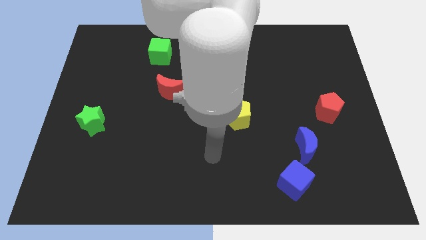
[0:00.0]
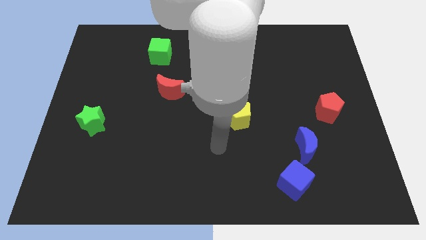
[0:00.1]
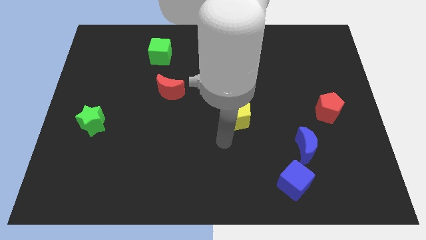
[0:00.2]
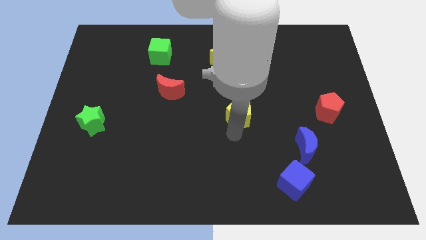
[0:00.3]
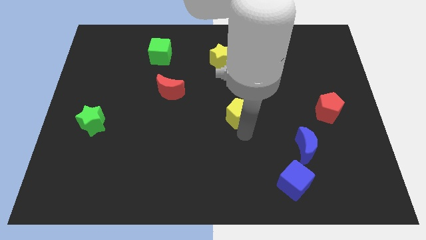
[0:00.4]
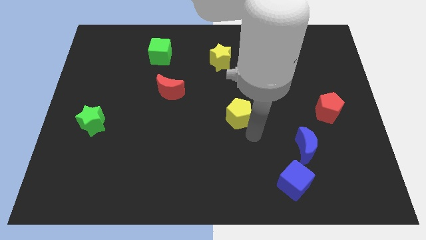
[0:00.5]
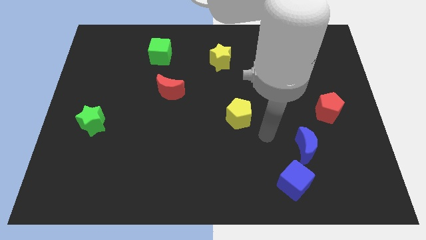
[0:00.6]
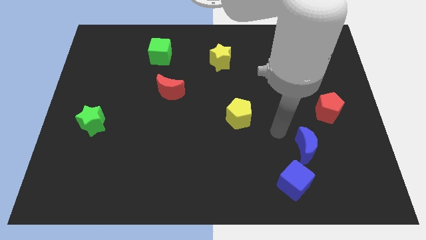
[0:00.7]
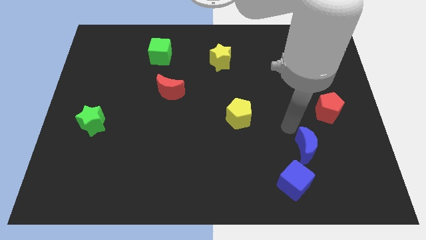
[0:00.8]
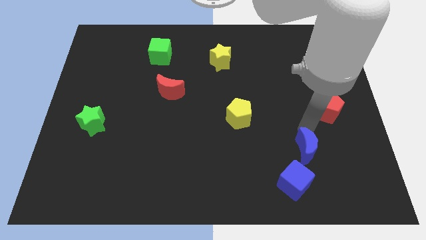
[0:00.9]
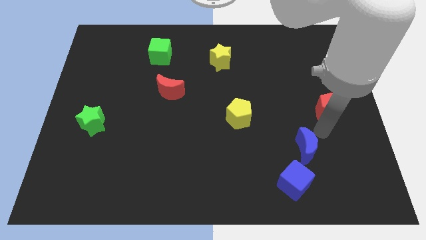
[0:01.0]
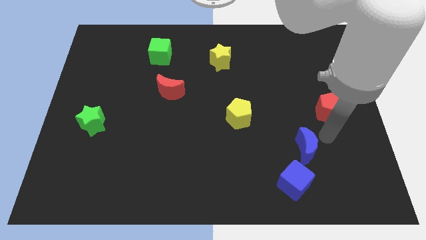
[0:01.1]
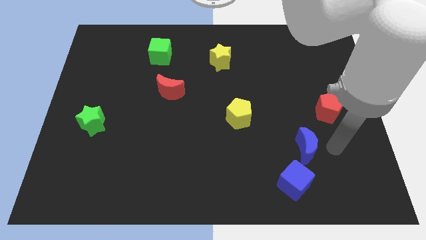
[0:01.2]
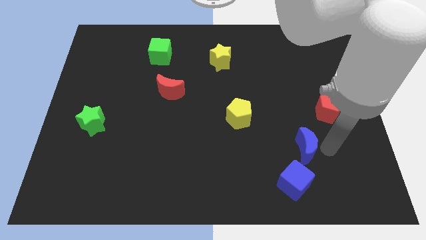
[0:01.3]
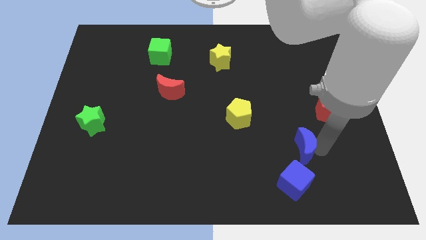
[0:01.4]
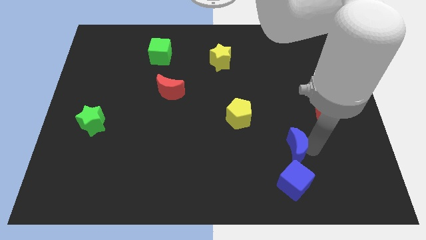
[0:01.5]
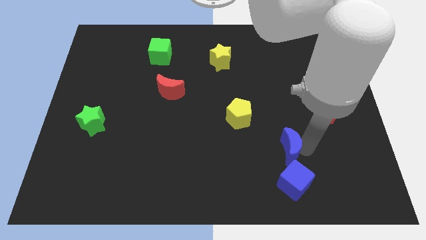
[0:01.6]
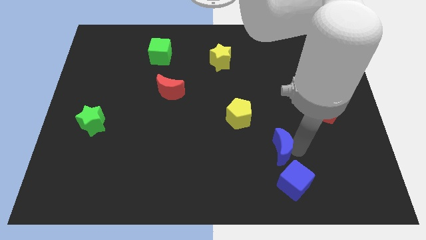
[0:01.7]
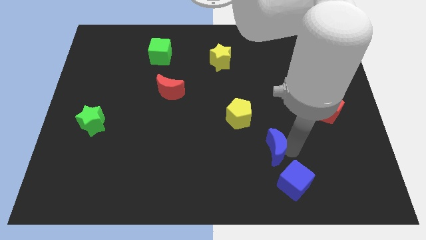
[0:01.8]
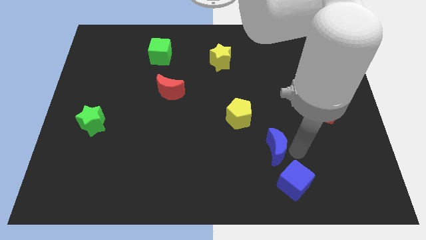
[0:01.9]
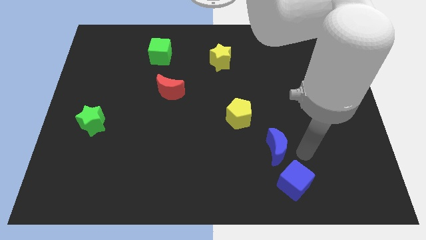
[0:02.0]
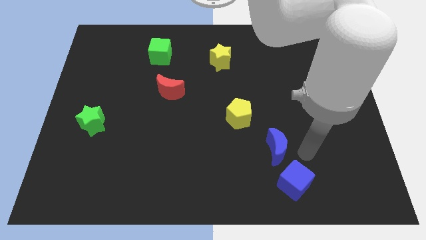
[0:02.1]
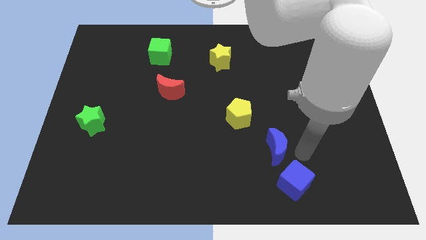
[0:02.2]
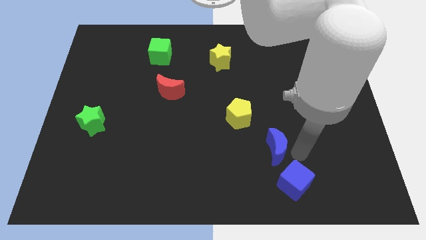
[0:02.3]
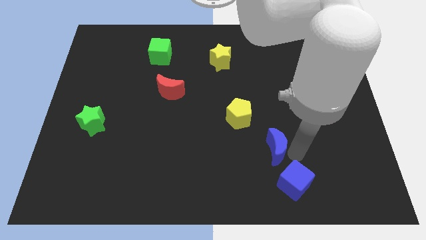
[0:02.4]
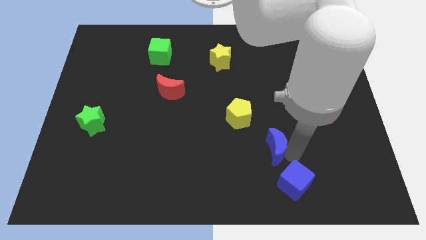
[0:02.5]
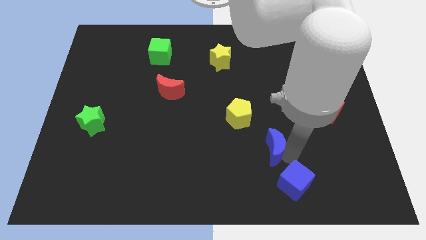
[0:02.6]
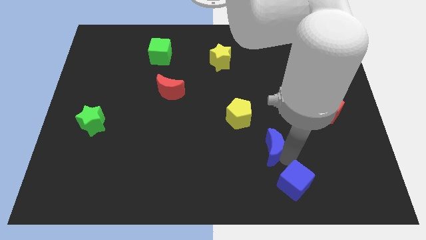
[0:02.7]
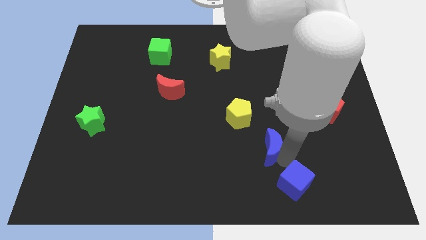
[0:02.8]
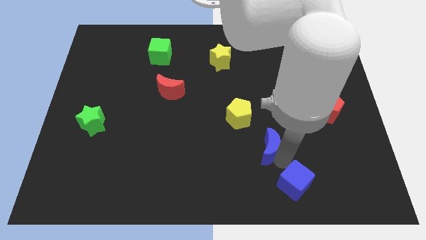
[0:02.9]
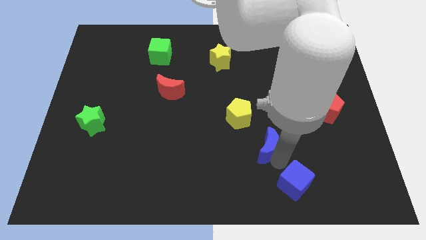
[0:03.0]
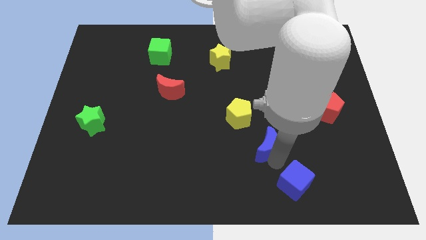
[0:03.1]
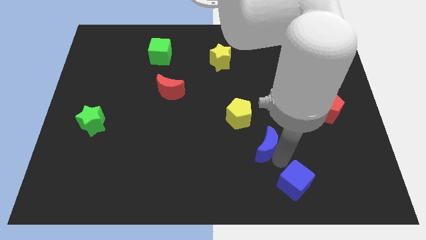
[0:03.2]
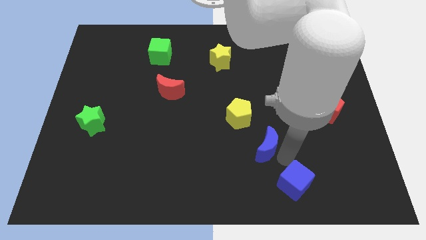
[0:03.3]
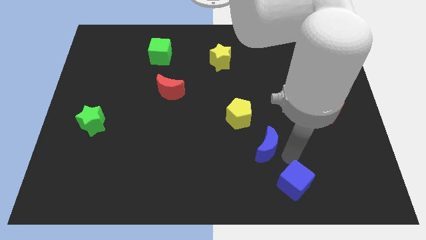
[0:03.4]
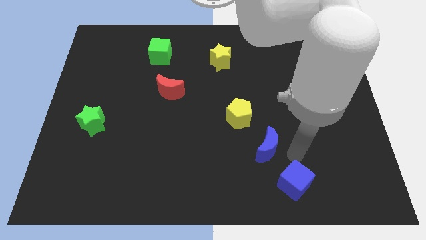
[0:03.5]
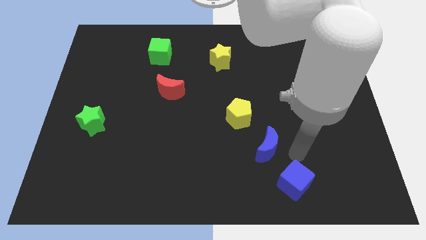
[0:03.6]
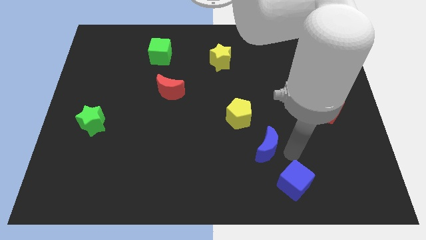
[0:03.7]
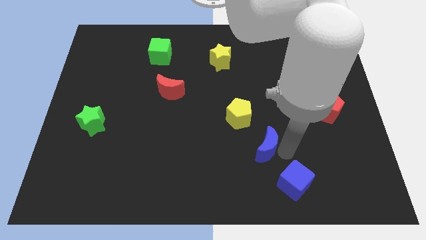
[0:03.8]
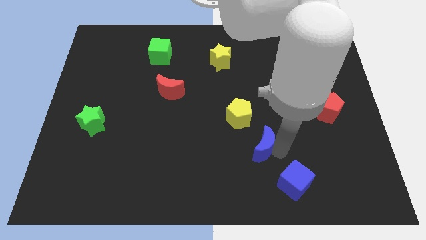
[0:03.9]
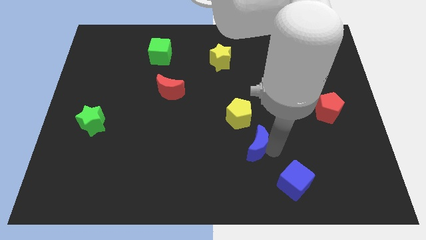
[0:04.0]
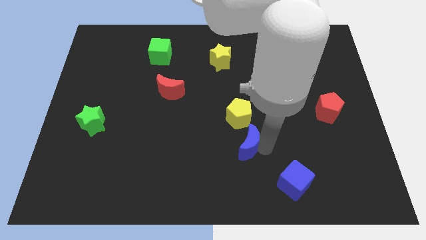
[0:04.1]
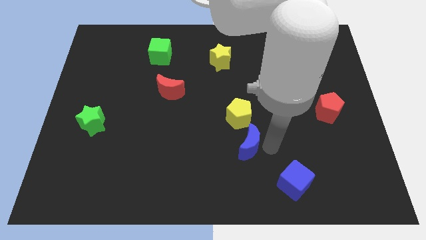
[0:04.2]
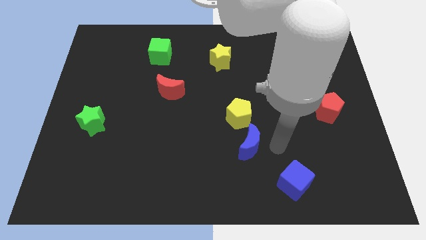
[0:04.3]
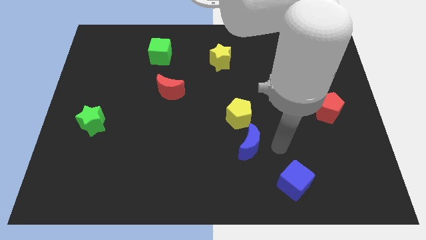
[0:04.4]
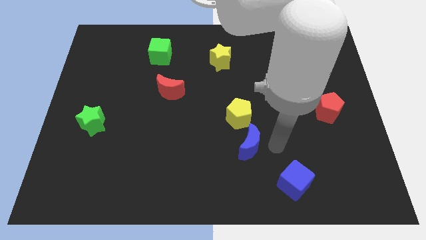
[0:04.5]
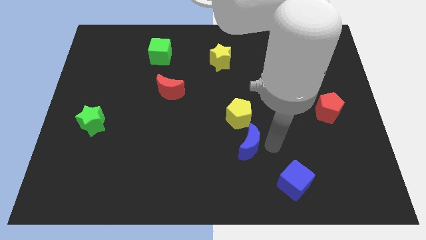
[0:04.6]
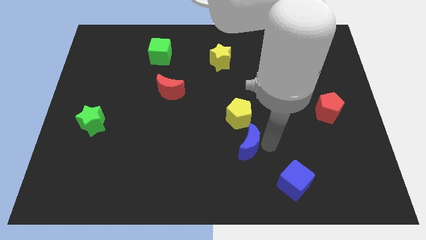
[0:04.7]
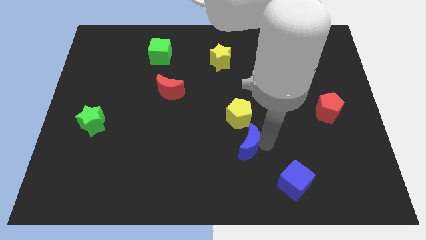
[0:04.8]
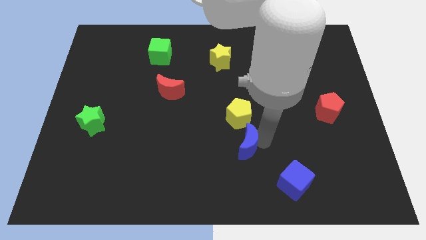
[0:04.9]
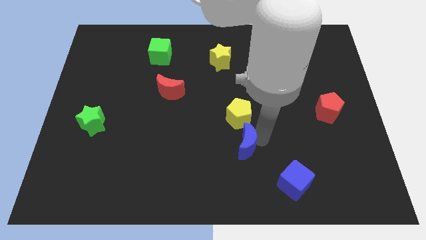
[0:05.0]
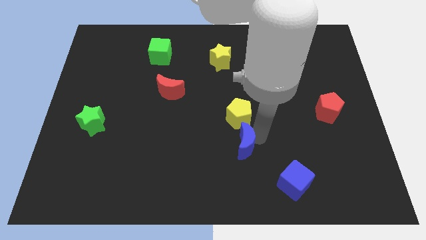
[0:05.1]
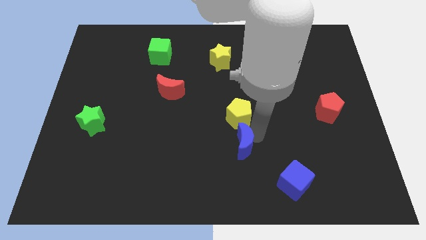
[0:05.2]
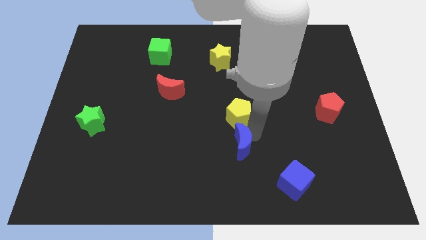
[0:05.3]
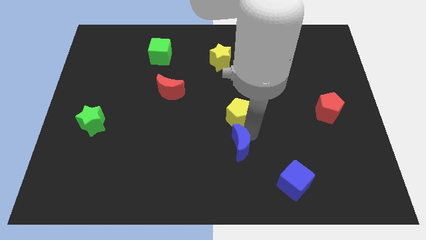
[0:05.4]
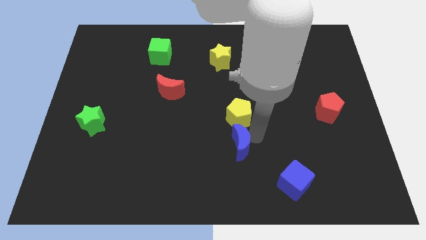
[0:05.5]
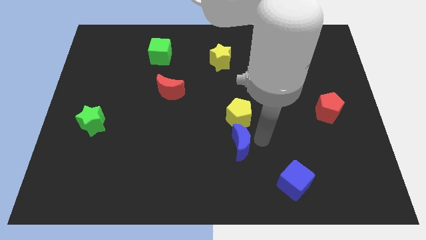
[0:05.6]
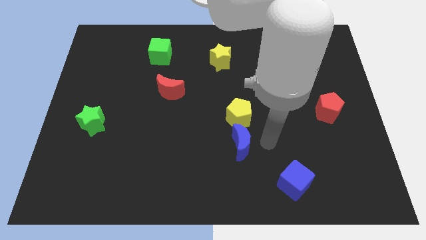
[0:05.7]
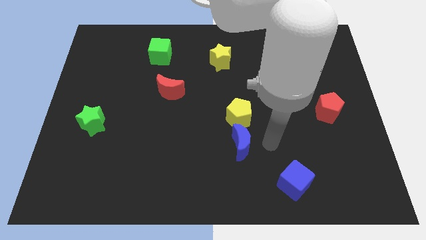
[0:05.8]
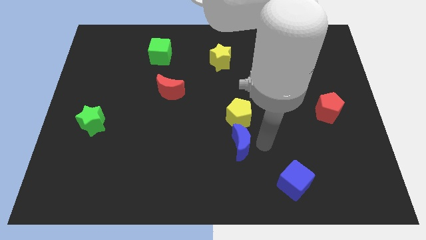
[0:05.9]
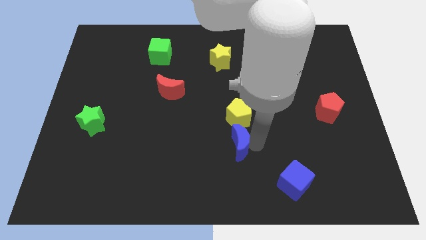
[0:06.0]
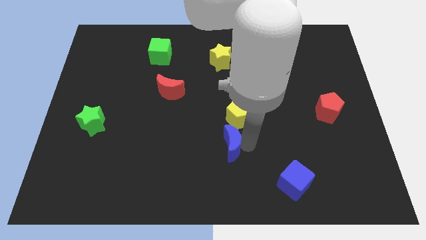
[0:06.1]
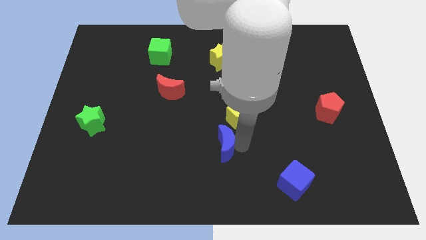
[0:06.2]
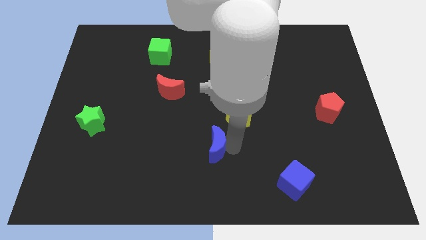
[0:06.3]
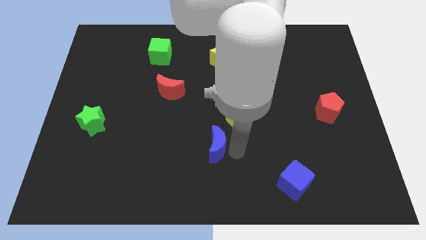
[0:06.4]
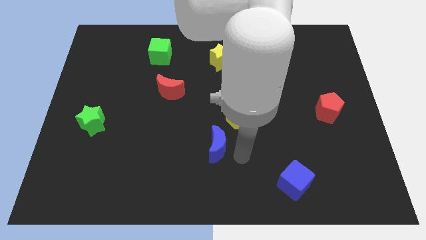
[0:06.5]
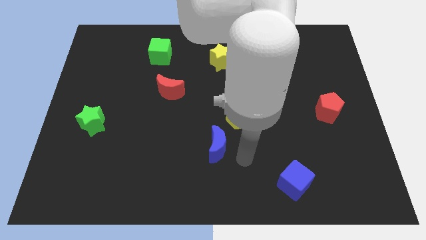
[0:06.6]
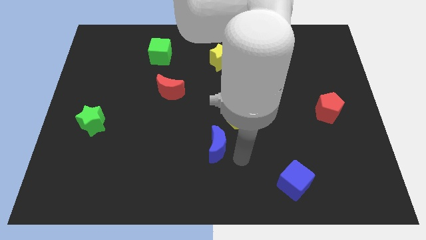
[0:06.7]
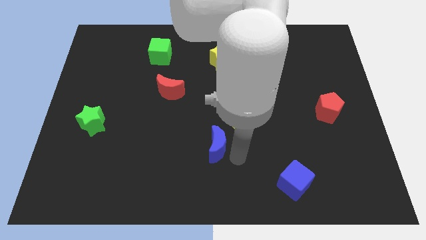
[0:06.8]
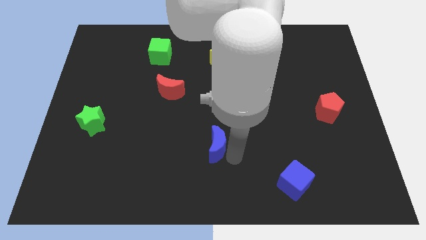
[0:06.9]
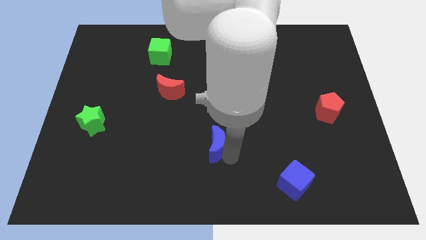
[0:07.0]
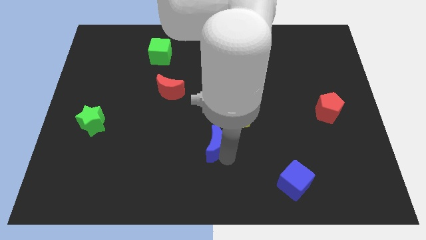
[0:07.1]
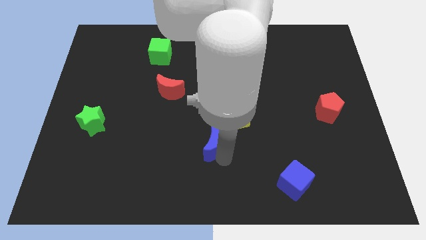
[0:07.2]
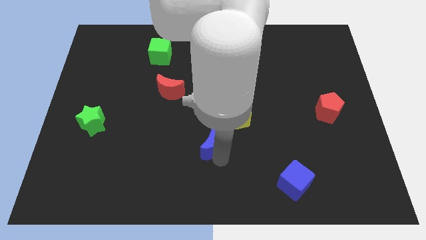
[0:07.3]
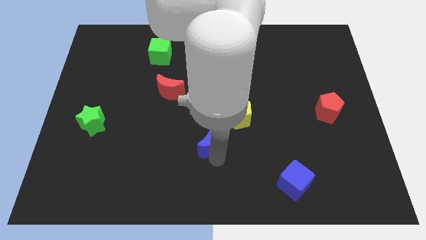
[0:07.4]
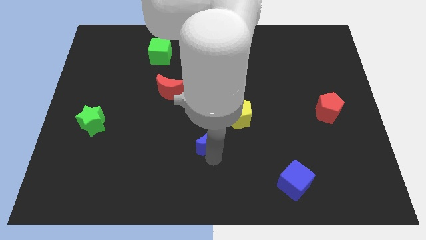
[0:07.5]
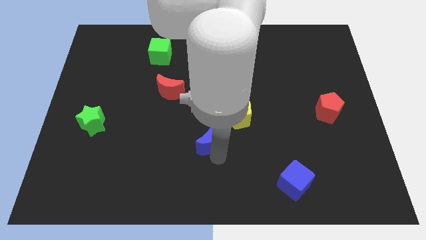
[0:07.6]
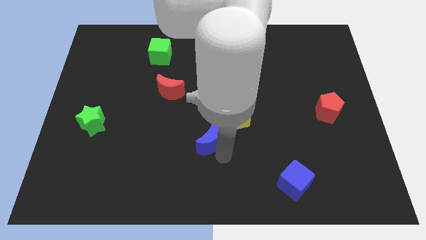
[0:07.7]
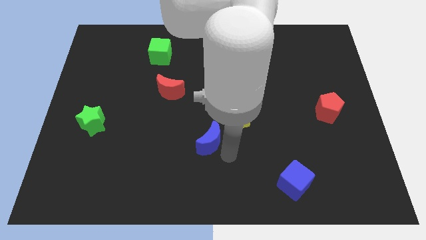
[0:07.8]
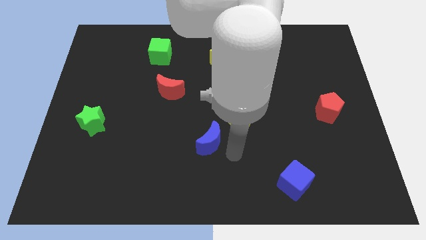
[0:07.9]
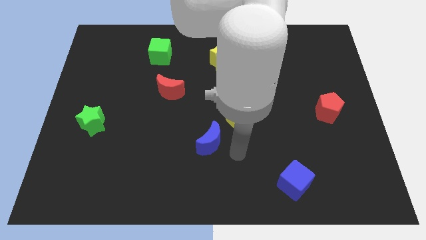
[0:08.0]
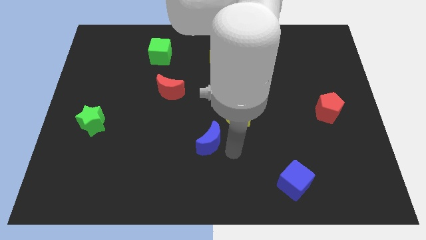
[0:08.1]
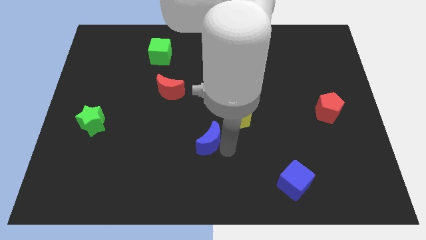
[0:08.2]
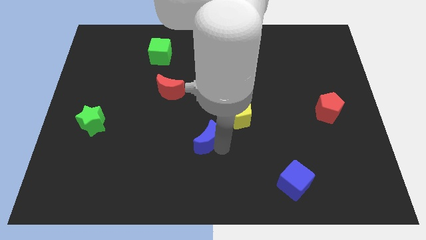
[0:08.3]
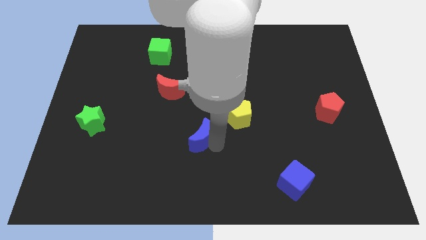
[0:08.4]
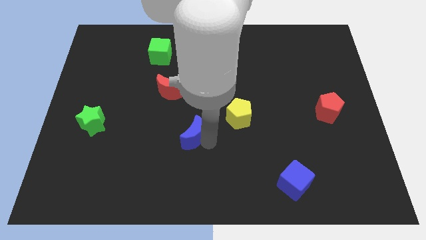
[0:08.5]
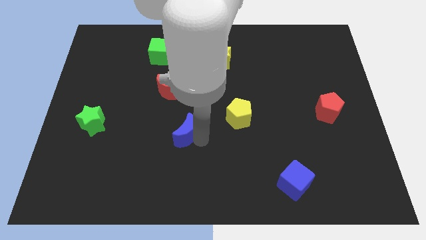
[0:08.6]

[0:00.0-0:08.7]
push the blue moon to the bottom of the red moon
